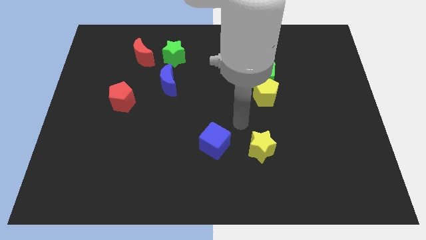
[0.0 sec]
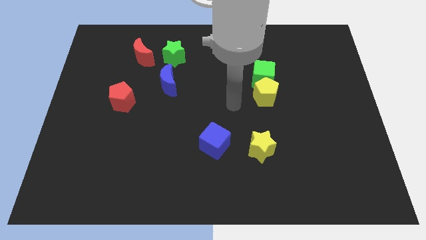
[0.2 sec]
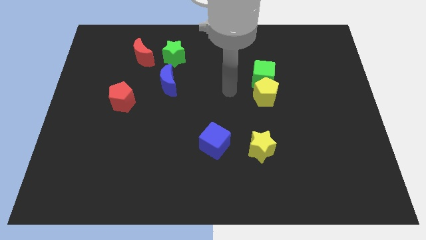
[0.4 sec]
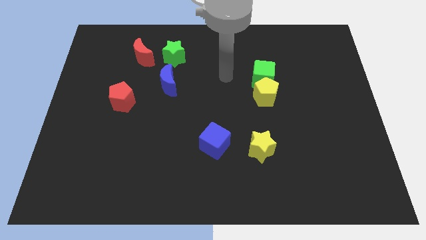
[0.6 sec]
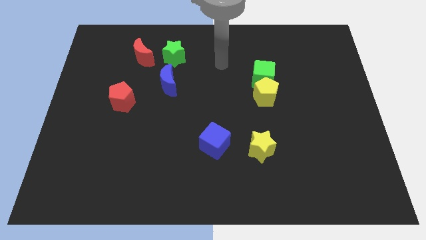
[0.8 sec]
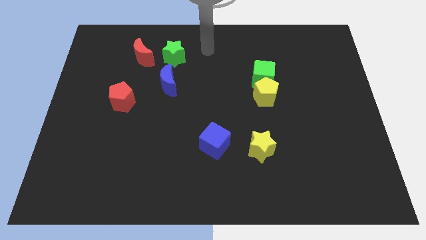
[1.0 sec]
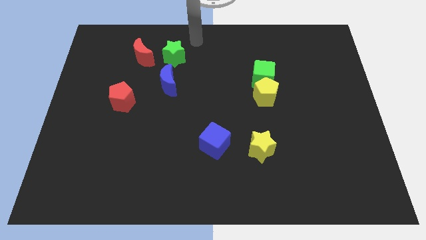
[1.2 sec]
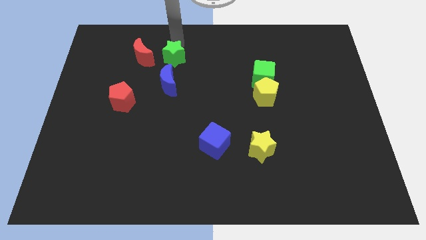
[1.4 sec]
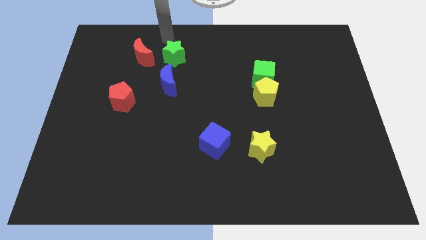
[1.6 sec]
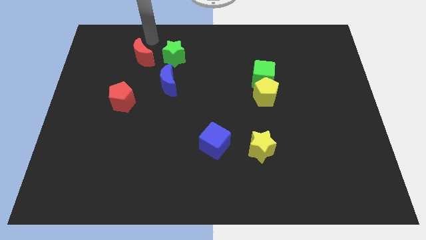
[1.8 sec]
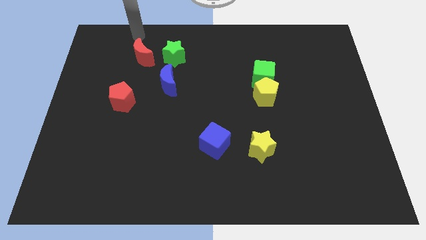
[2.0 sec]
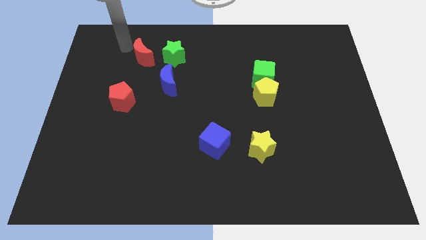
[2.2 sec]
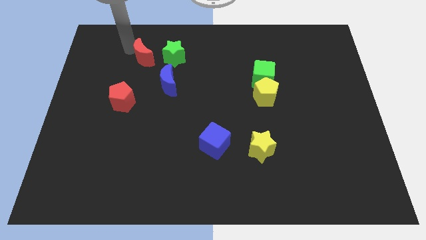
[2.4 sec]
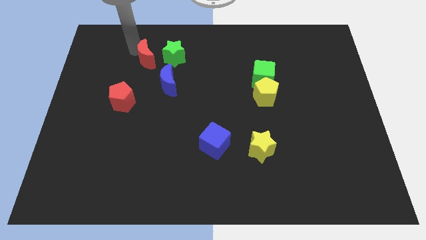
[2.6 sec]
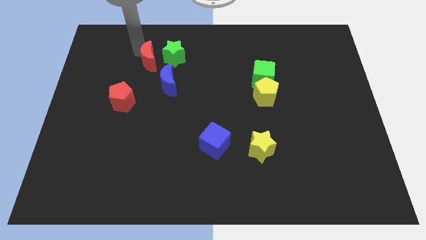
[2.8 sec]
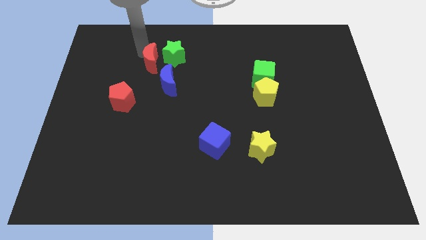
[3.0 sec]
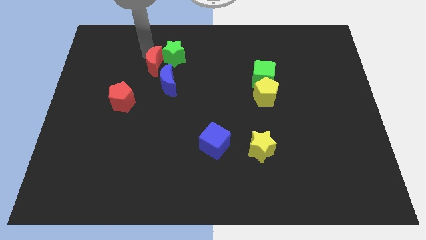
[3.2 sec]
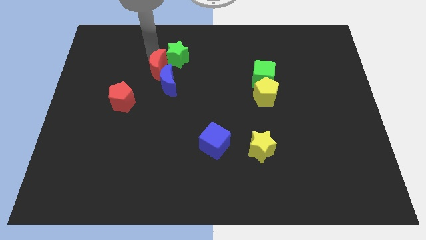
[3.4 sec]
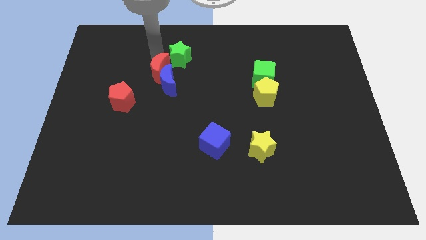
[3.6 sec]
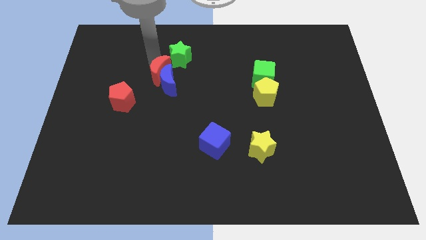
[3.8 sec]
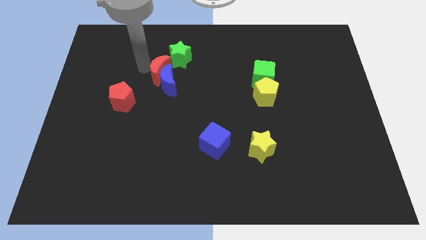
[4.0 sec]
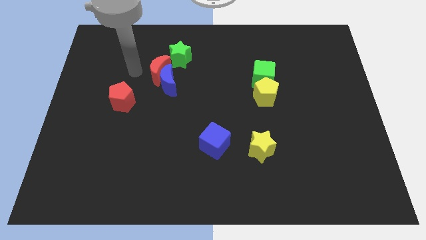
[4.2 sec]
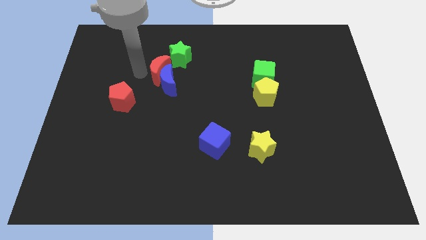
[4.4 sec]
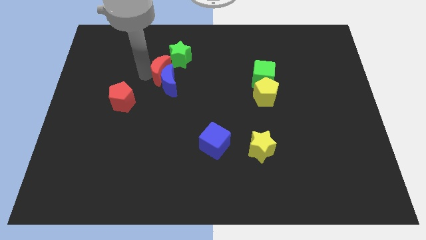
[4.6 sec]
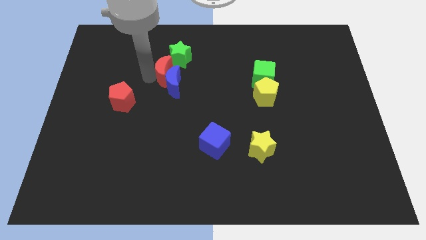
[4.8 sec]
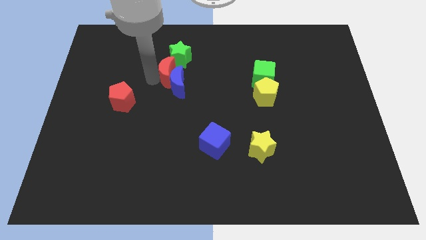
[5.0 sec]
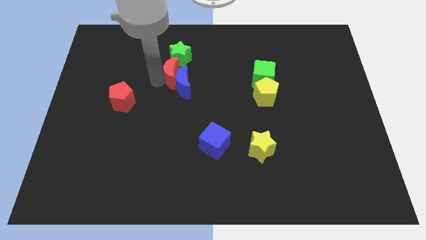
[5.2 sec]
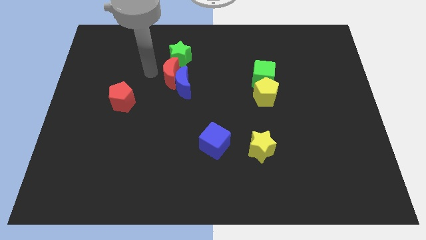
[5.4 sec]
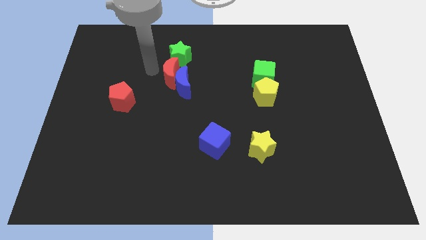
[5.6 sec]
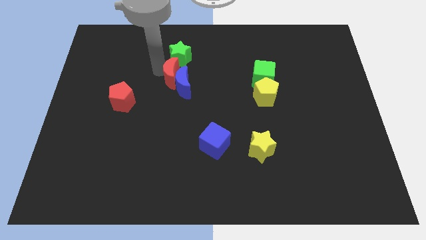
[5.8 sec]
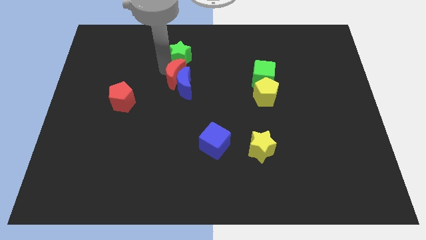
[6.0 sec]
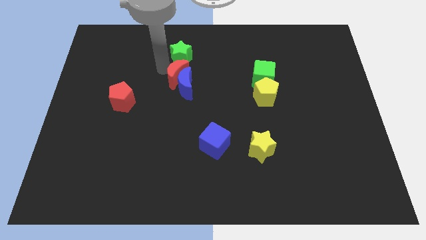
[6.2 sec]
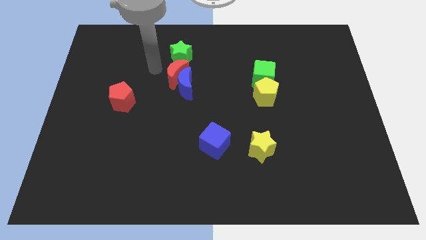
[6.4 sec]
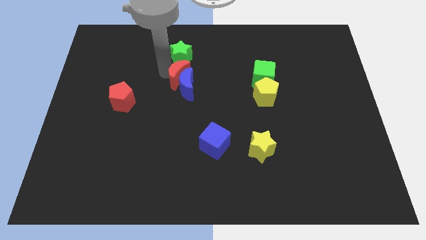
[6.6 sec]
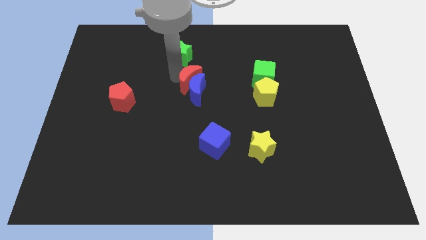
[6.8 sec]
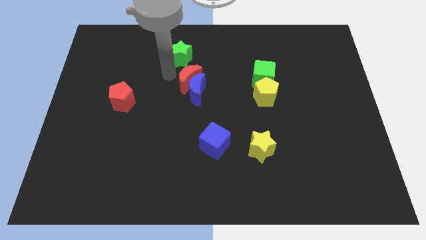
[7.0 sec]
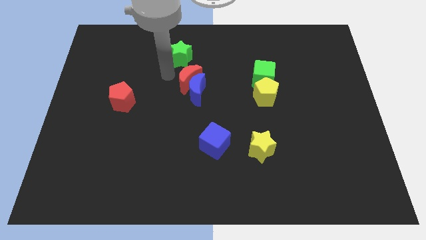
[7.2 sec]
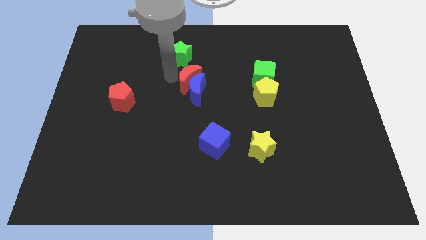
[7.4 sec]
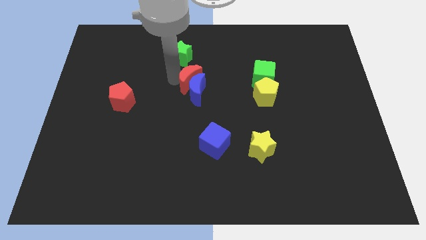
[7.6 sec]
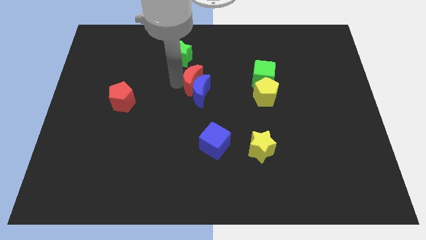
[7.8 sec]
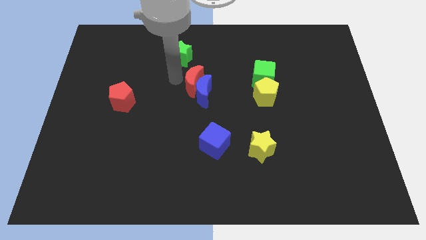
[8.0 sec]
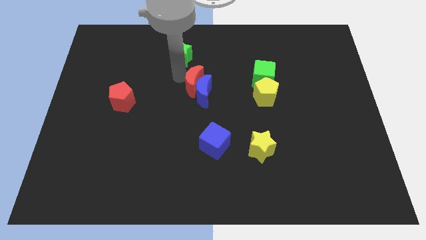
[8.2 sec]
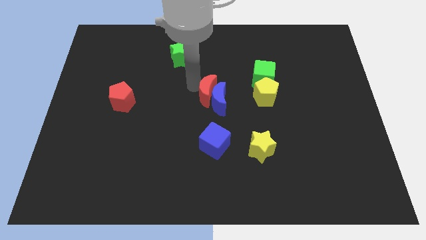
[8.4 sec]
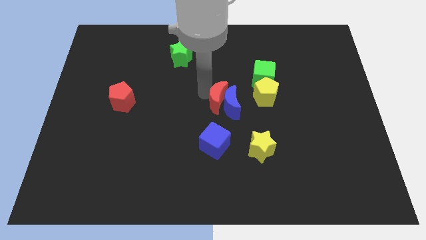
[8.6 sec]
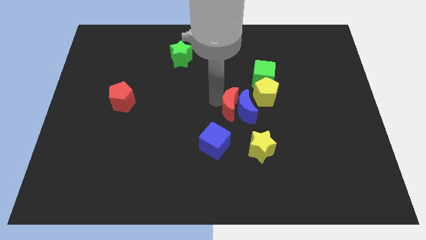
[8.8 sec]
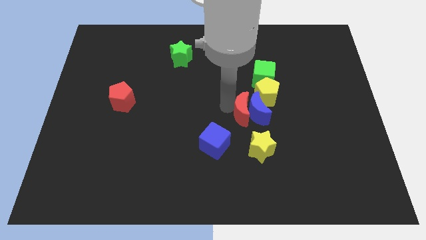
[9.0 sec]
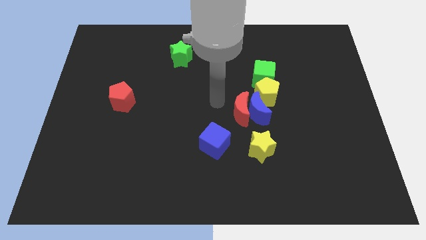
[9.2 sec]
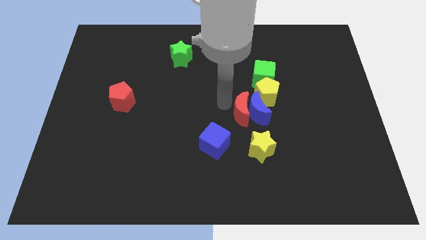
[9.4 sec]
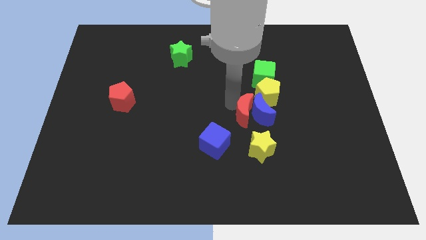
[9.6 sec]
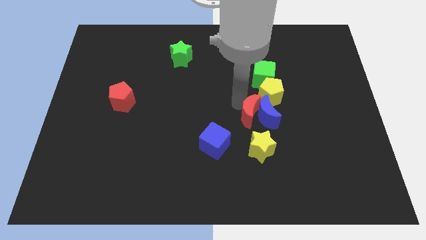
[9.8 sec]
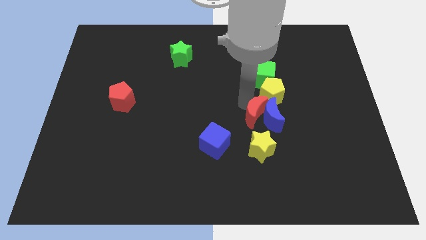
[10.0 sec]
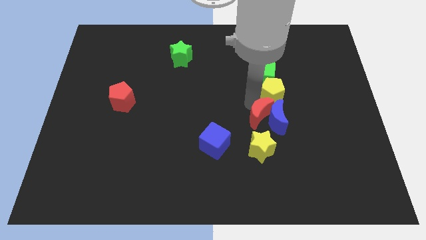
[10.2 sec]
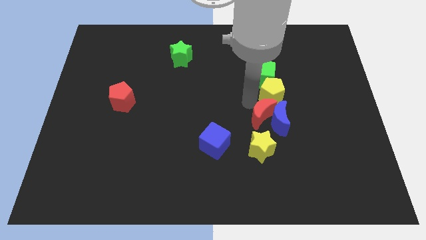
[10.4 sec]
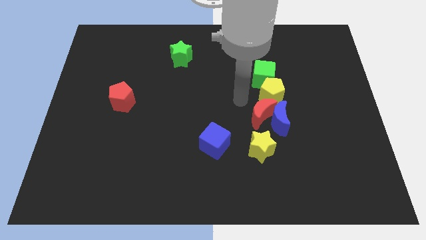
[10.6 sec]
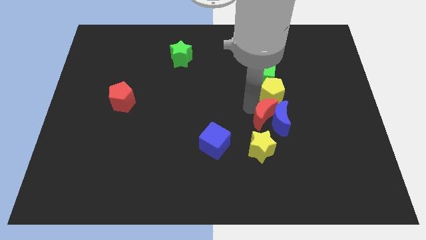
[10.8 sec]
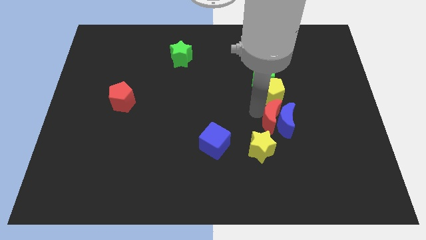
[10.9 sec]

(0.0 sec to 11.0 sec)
slide the red moon to the top right of the yellow star

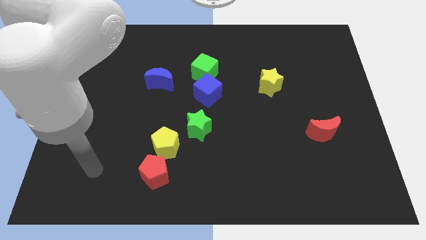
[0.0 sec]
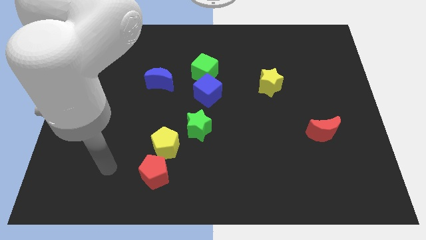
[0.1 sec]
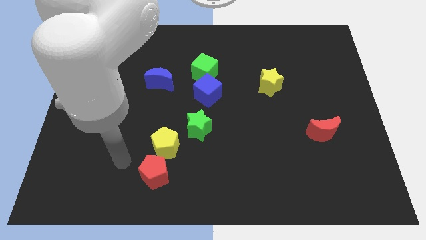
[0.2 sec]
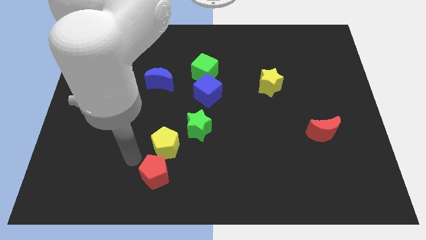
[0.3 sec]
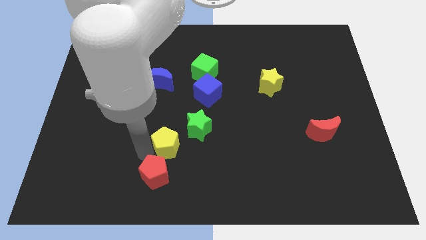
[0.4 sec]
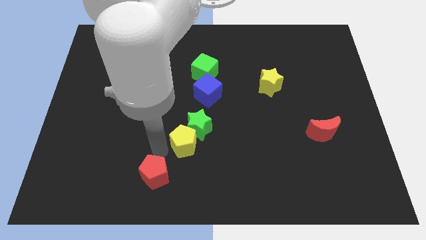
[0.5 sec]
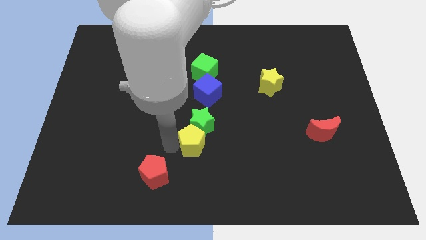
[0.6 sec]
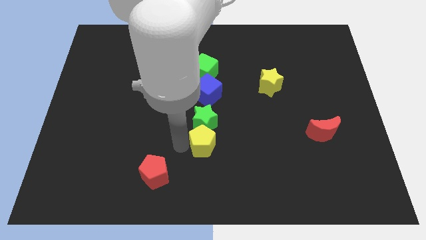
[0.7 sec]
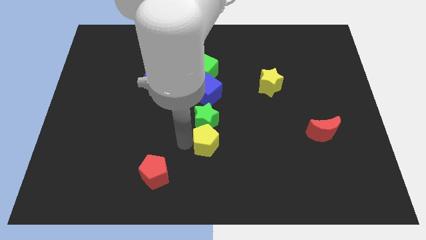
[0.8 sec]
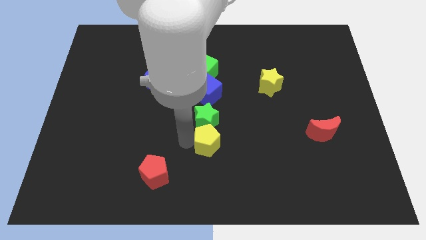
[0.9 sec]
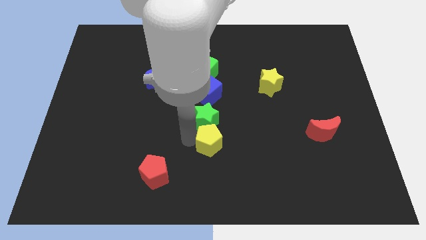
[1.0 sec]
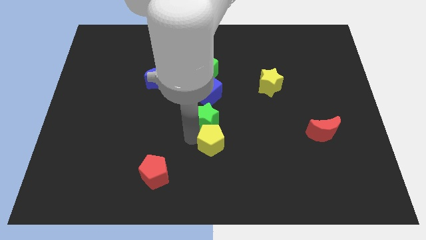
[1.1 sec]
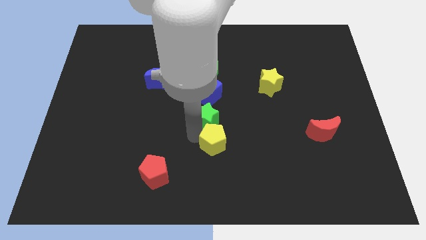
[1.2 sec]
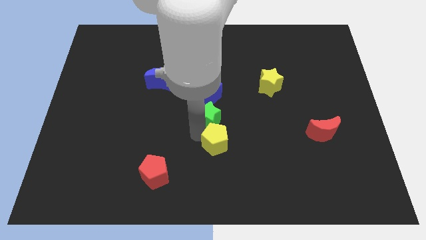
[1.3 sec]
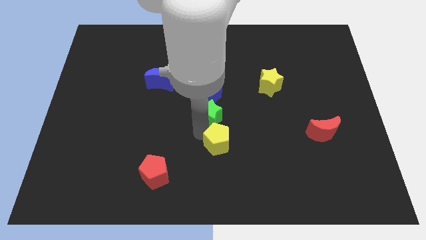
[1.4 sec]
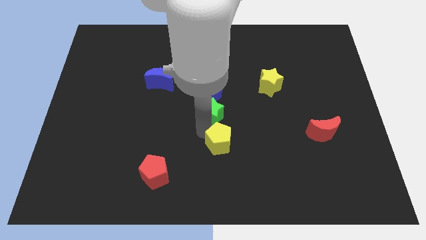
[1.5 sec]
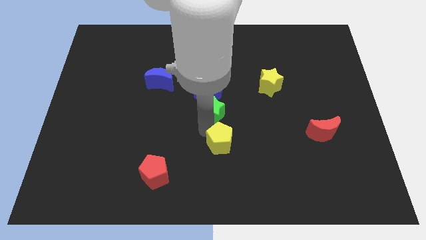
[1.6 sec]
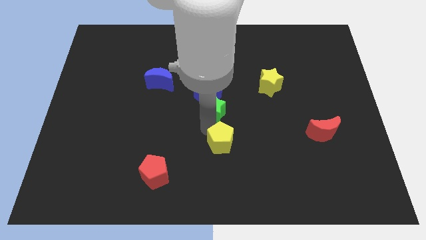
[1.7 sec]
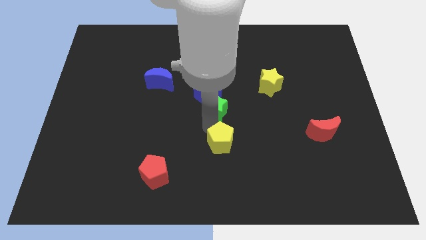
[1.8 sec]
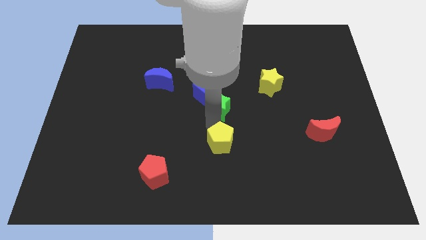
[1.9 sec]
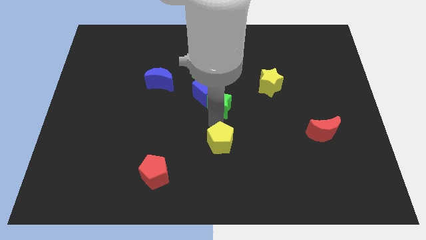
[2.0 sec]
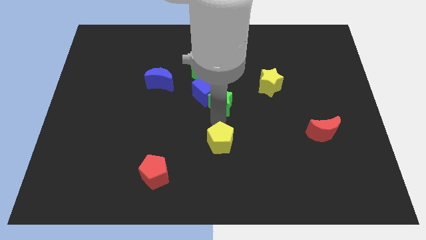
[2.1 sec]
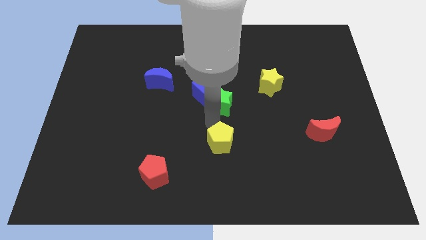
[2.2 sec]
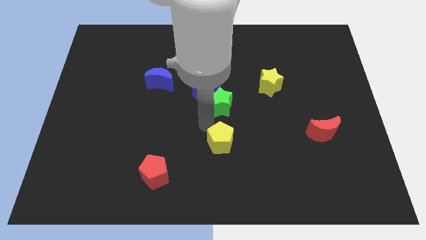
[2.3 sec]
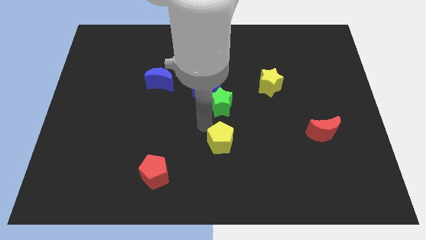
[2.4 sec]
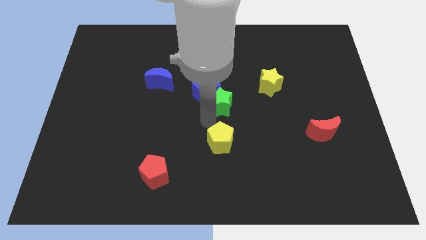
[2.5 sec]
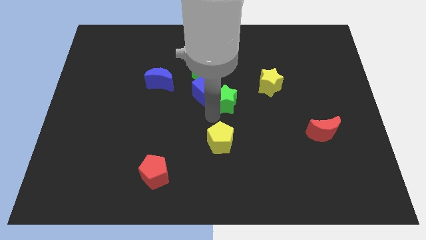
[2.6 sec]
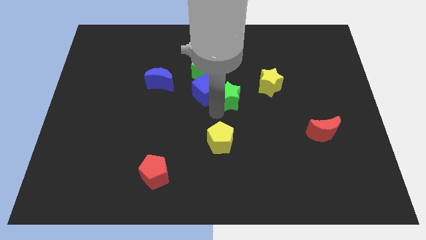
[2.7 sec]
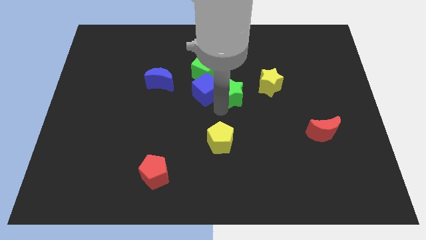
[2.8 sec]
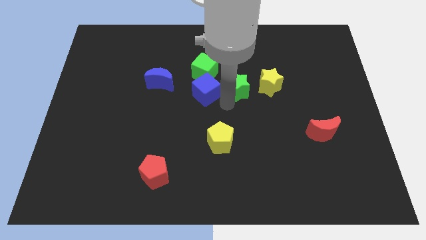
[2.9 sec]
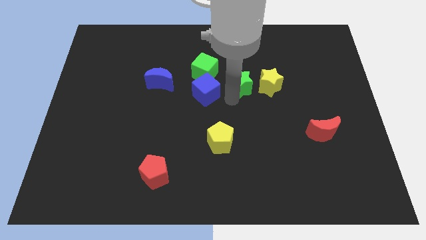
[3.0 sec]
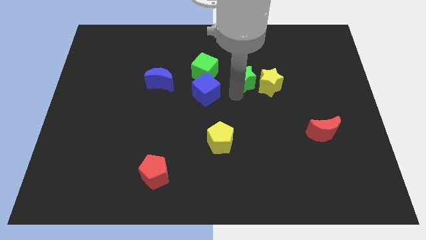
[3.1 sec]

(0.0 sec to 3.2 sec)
slide the green star to the top left of the yellow star
